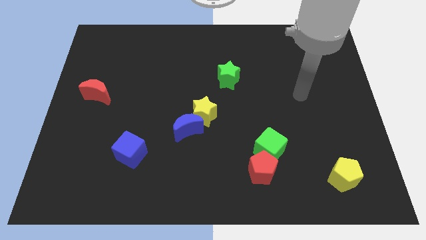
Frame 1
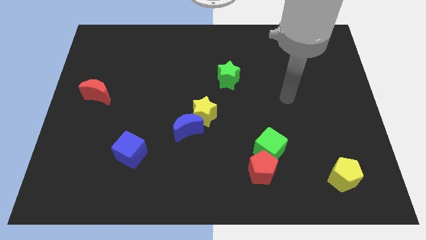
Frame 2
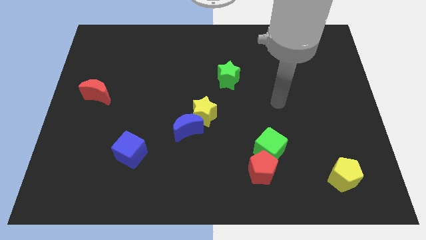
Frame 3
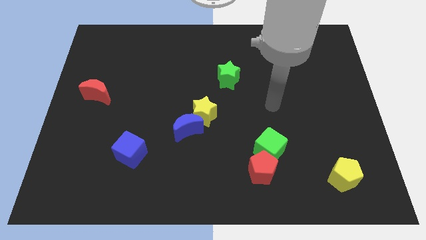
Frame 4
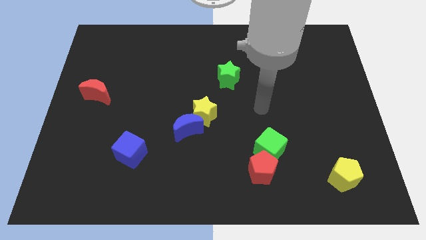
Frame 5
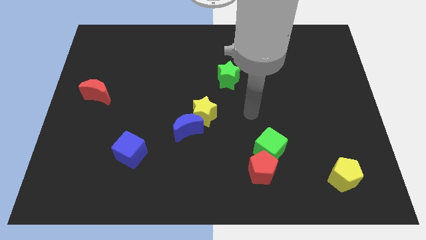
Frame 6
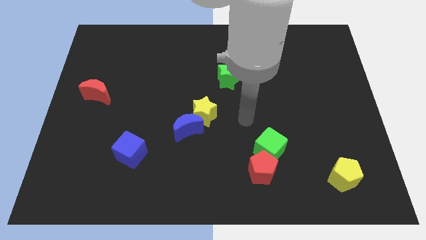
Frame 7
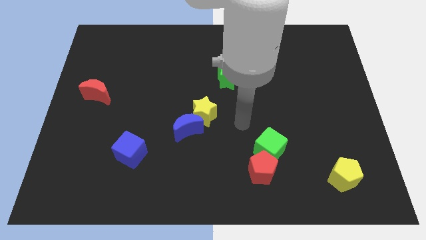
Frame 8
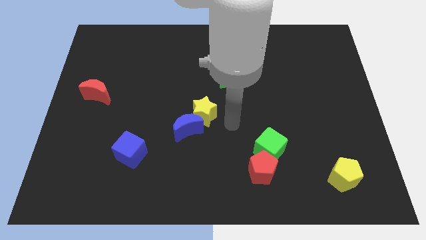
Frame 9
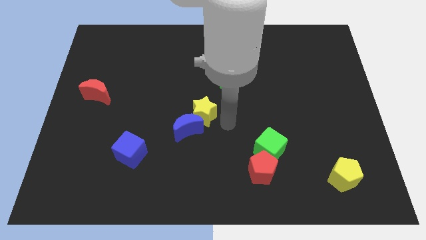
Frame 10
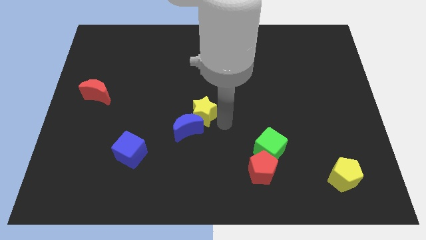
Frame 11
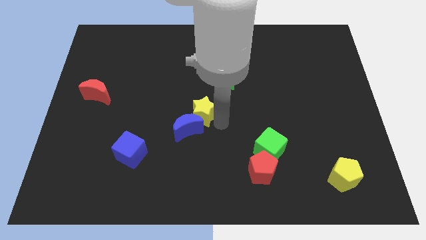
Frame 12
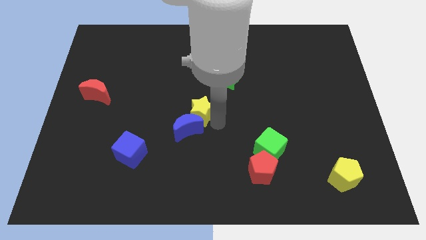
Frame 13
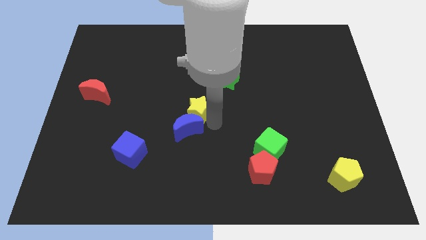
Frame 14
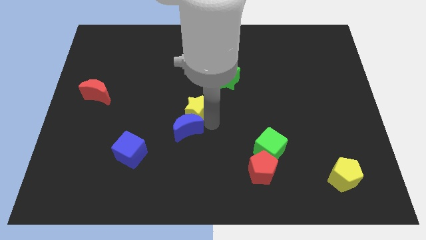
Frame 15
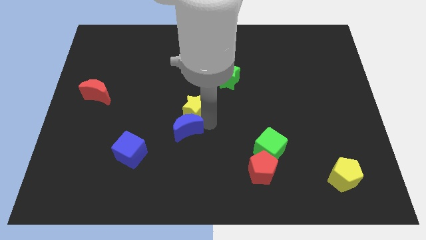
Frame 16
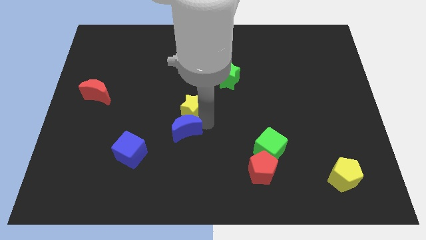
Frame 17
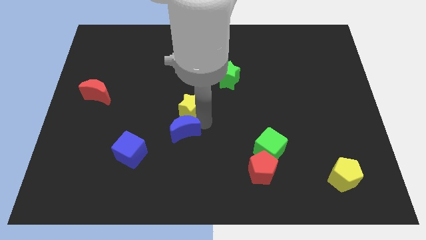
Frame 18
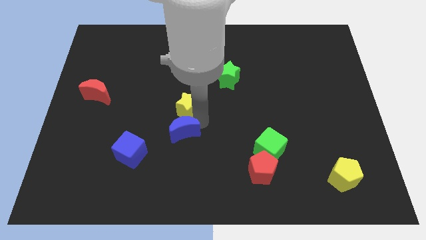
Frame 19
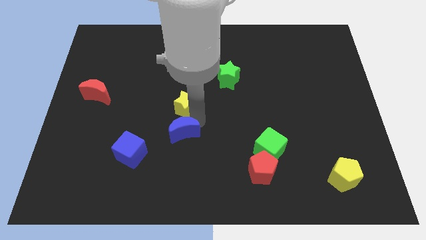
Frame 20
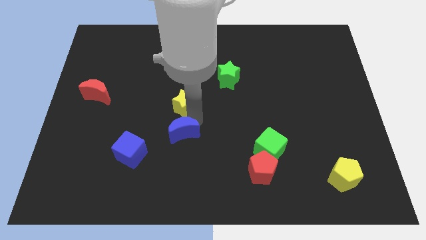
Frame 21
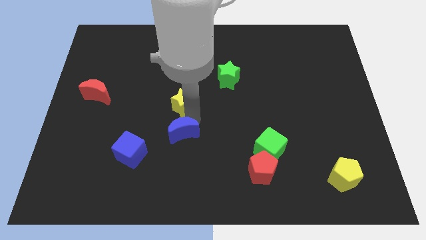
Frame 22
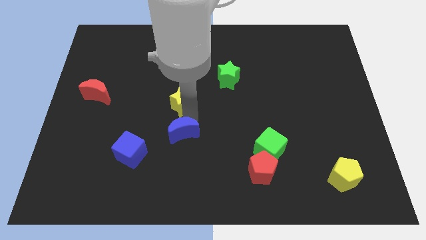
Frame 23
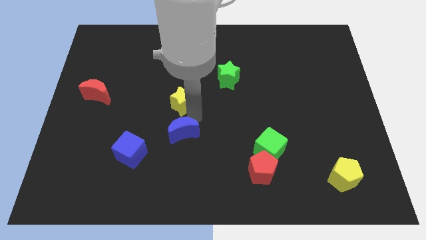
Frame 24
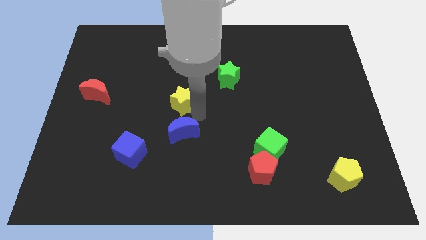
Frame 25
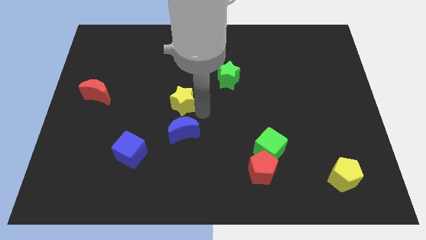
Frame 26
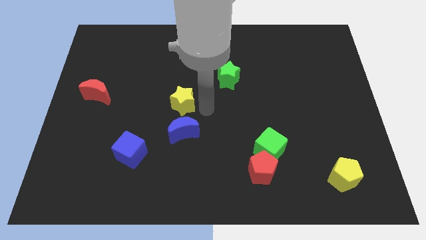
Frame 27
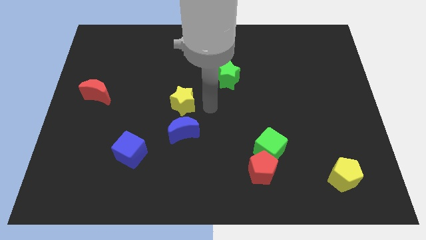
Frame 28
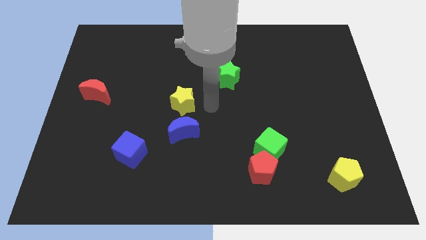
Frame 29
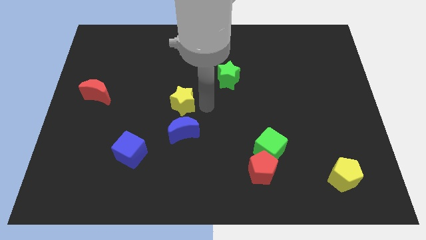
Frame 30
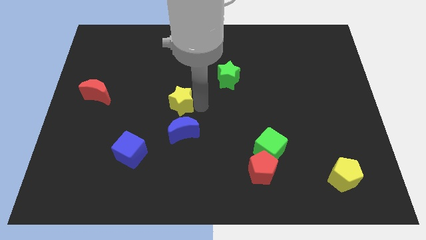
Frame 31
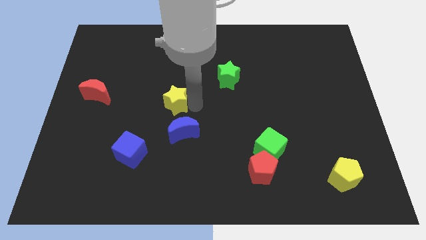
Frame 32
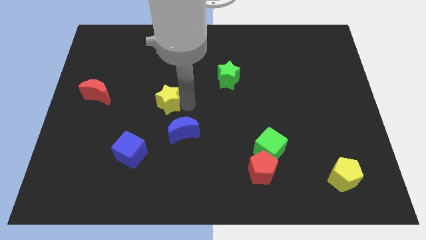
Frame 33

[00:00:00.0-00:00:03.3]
slightly slide the yellow star left

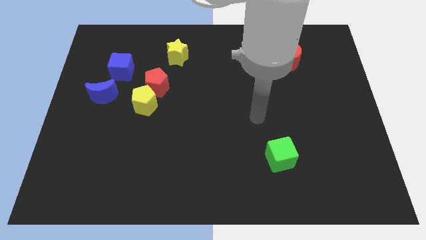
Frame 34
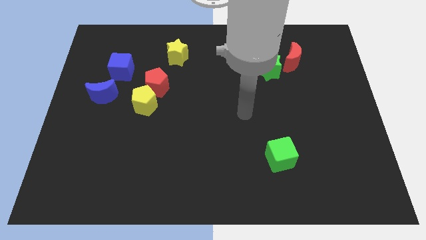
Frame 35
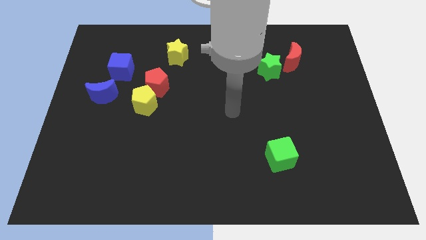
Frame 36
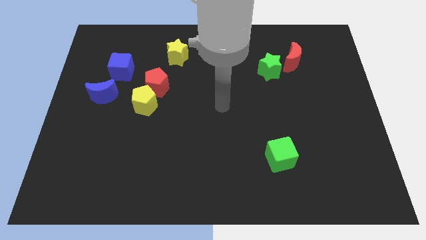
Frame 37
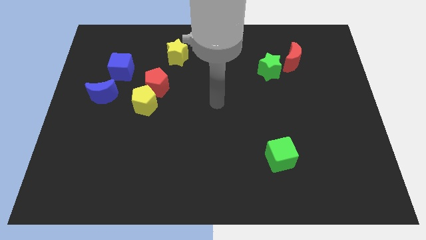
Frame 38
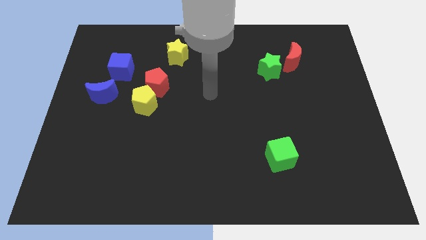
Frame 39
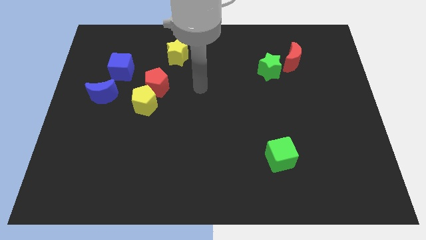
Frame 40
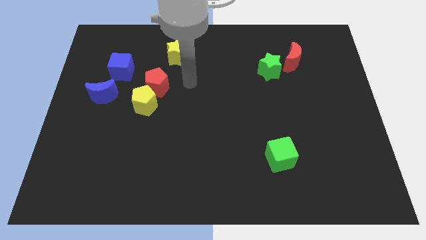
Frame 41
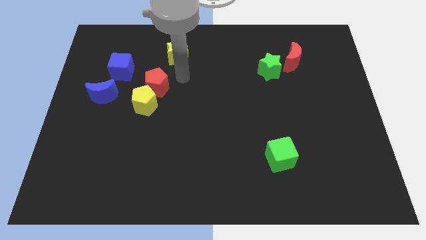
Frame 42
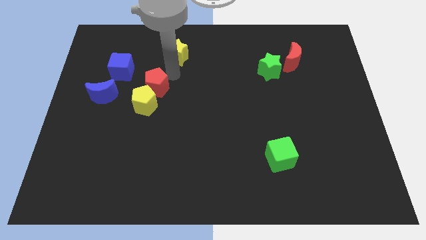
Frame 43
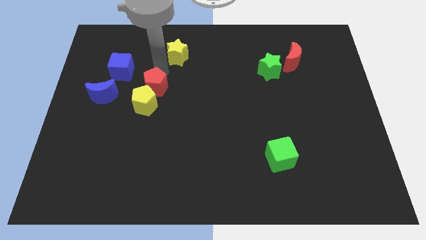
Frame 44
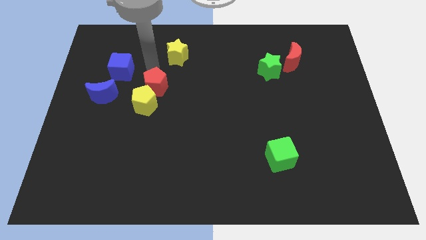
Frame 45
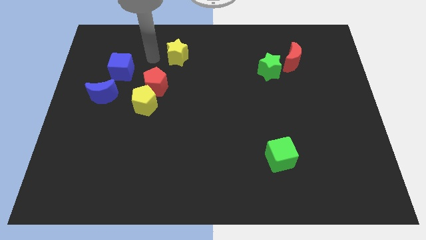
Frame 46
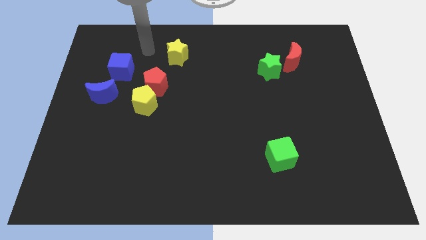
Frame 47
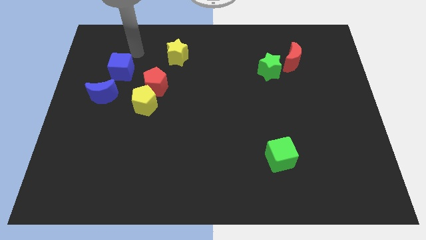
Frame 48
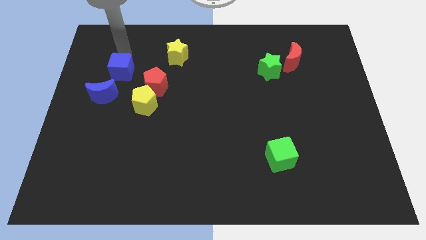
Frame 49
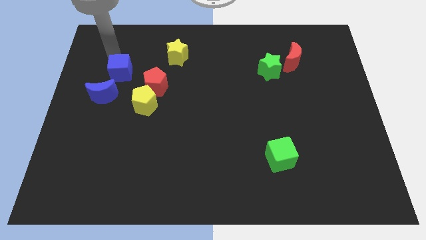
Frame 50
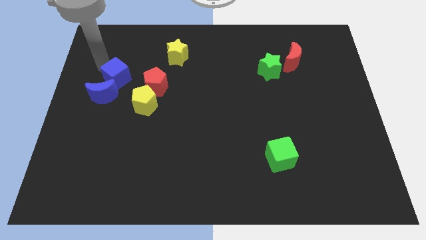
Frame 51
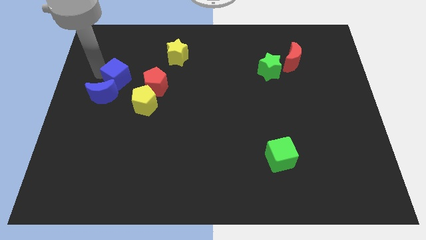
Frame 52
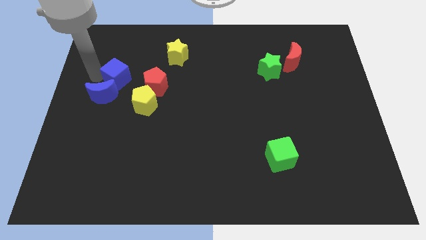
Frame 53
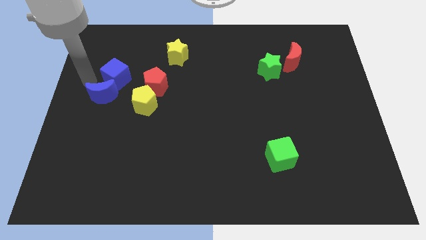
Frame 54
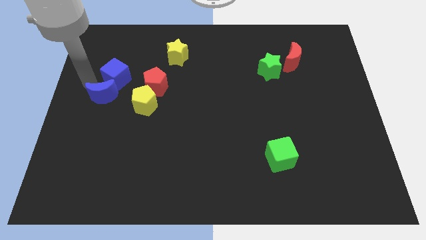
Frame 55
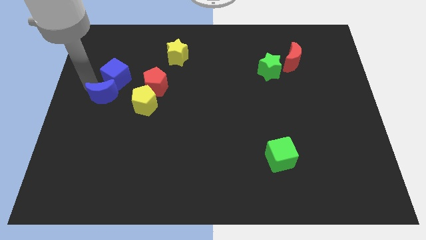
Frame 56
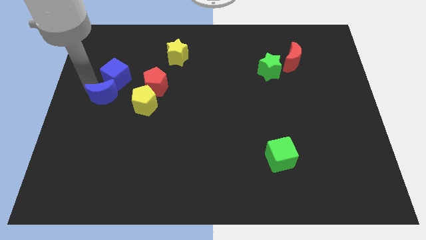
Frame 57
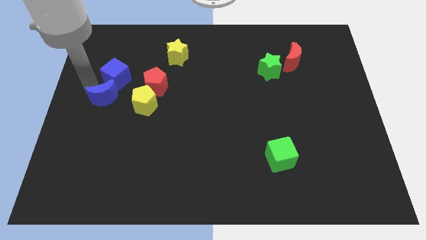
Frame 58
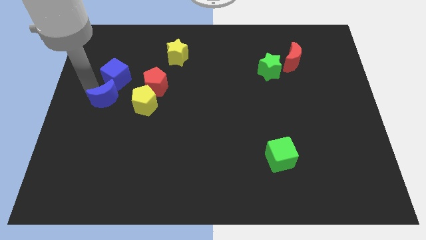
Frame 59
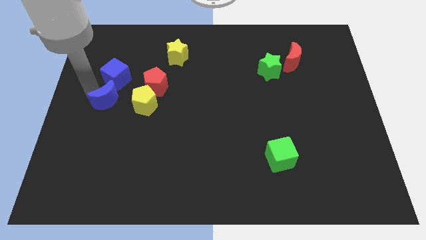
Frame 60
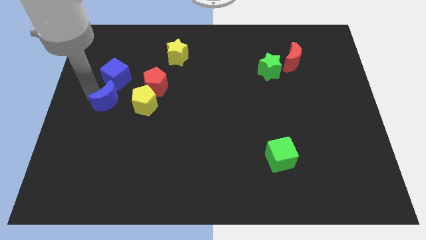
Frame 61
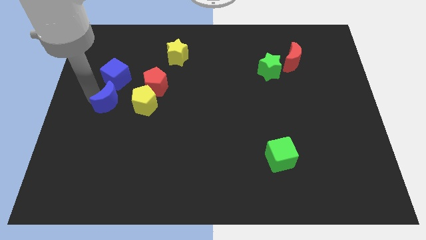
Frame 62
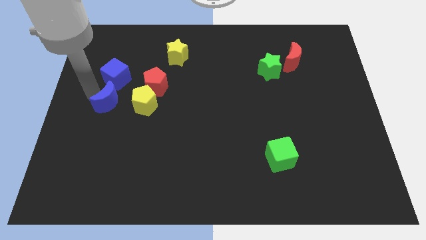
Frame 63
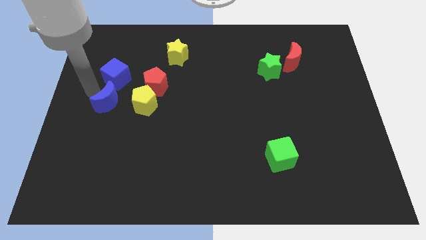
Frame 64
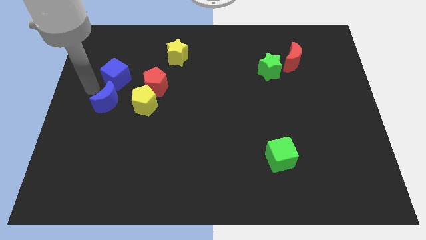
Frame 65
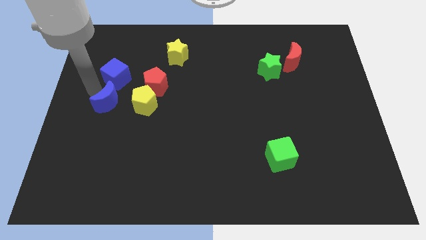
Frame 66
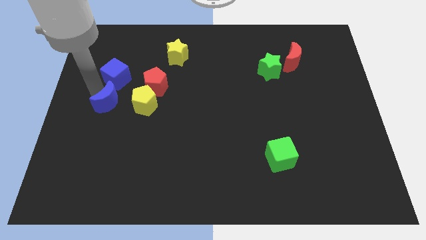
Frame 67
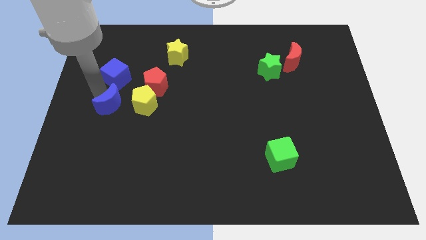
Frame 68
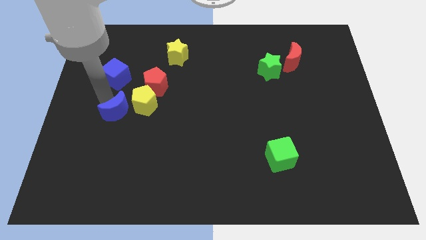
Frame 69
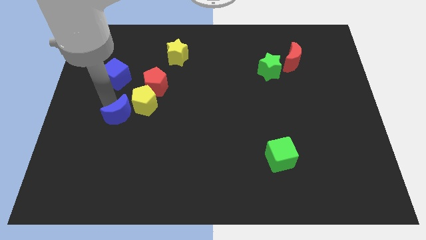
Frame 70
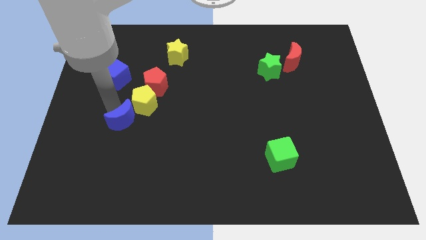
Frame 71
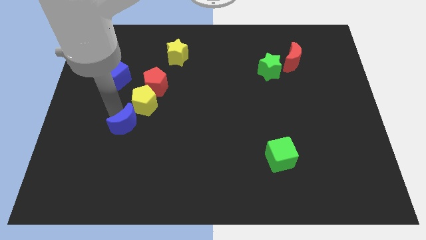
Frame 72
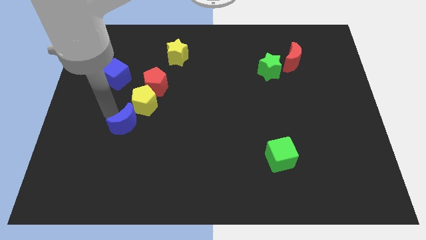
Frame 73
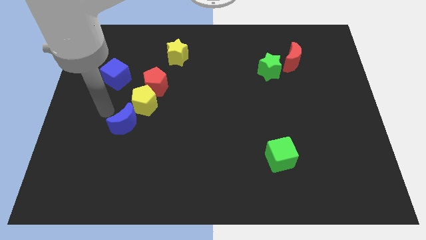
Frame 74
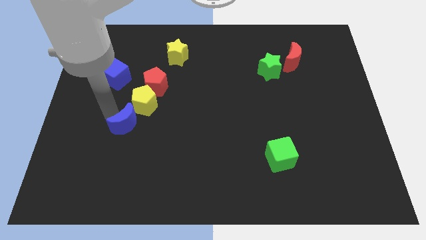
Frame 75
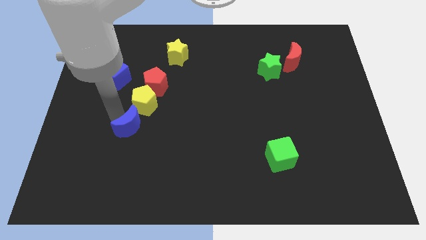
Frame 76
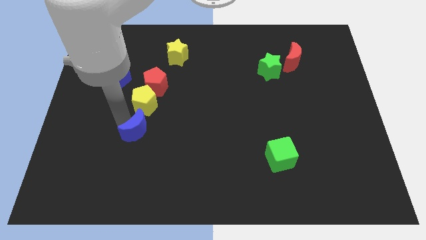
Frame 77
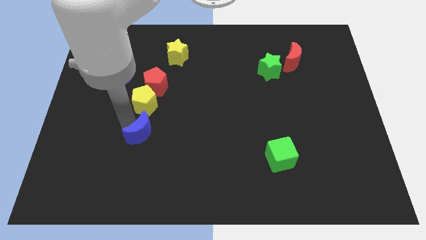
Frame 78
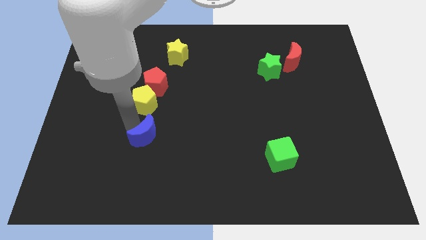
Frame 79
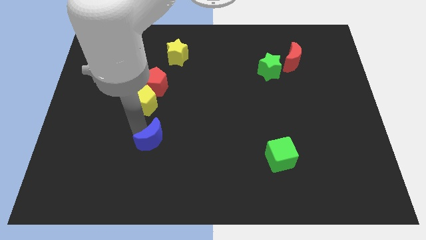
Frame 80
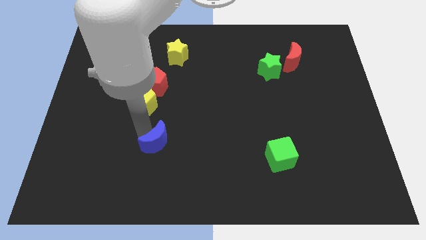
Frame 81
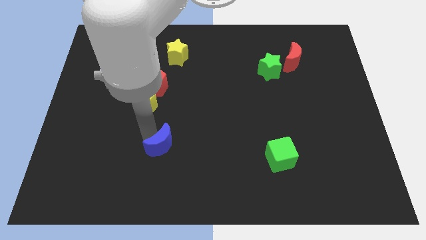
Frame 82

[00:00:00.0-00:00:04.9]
move the blue moon diagonally down and right
